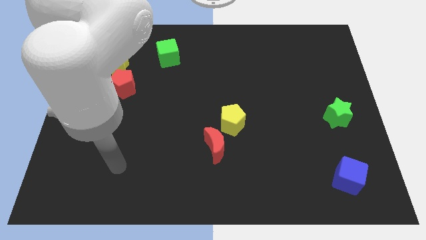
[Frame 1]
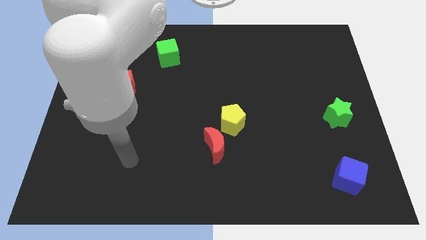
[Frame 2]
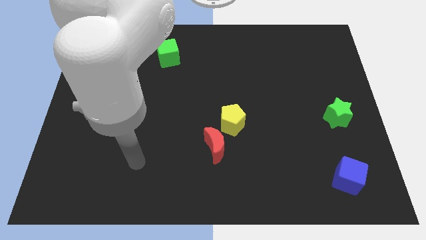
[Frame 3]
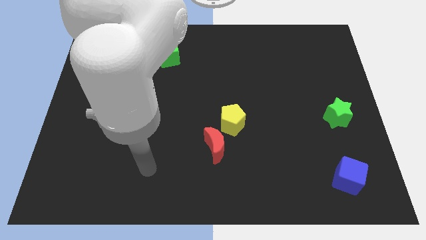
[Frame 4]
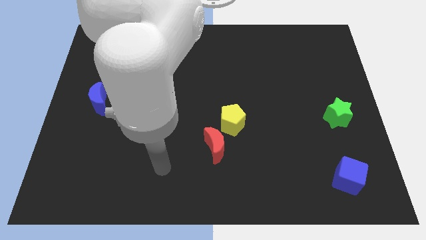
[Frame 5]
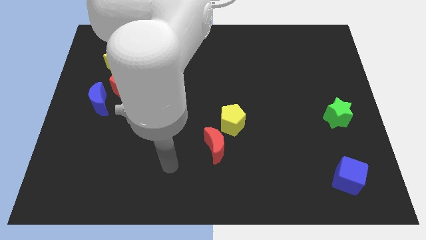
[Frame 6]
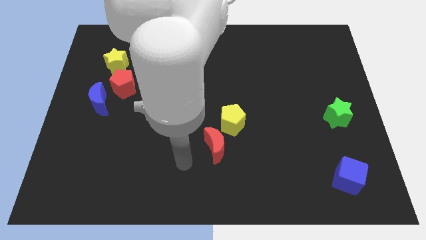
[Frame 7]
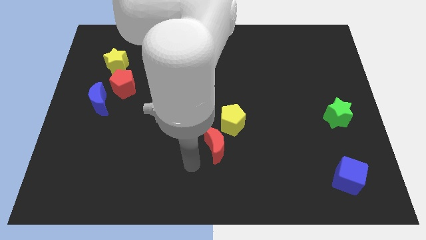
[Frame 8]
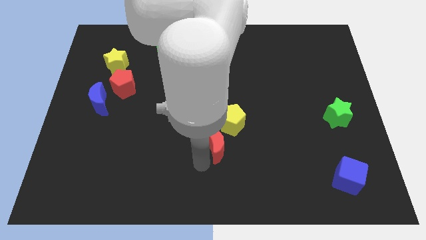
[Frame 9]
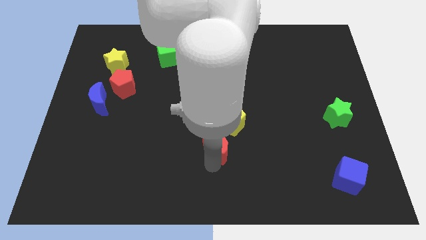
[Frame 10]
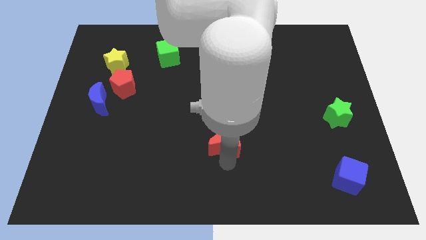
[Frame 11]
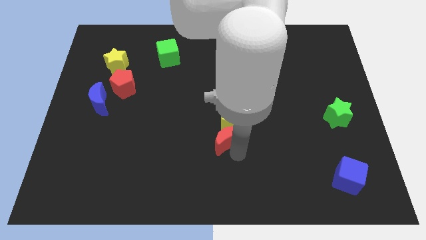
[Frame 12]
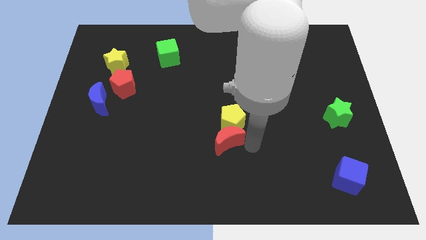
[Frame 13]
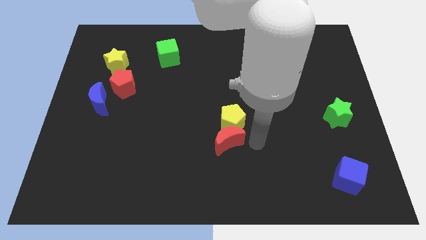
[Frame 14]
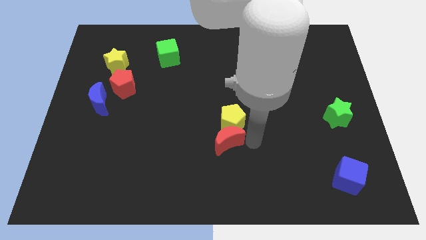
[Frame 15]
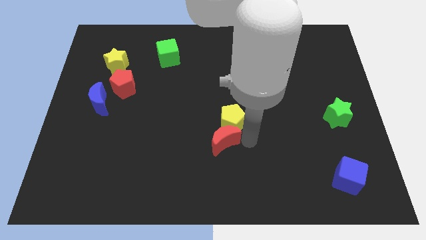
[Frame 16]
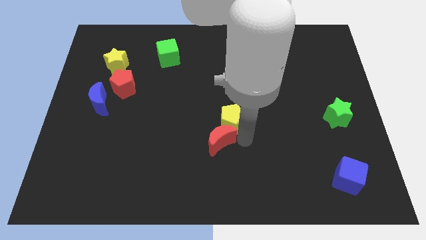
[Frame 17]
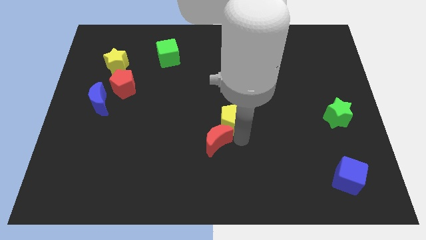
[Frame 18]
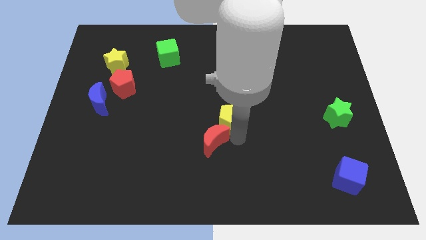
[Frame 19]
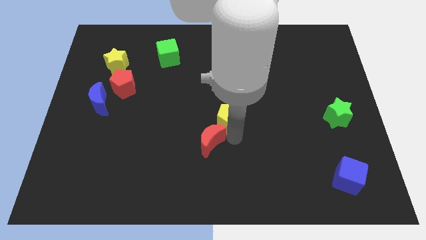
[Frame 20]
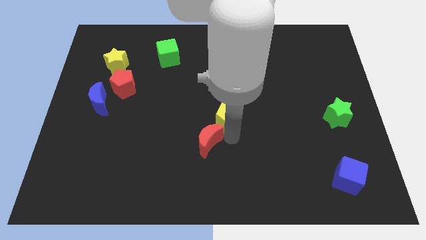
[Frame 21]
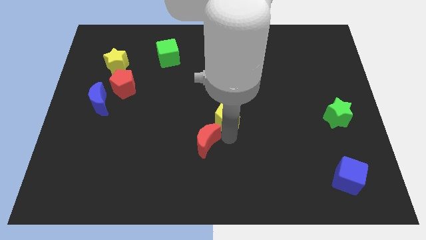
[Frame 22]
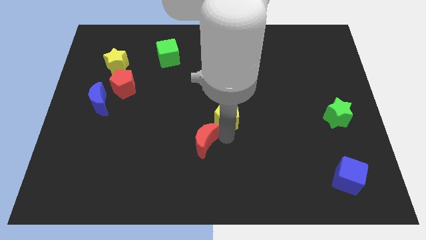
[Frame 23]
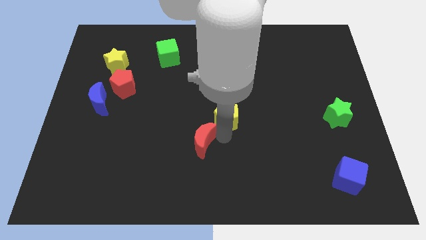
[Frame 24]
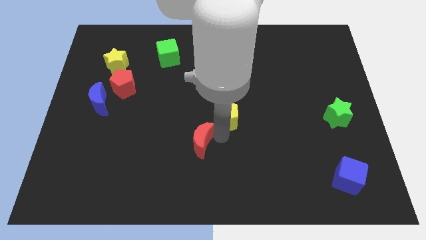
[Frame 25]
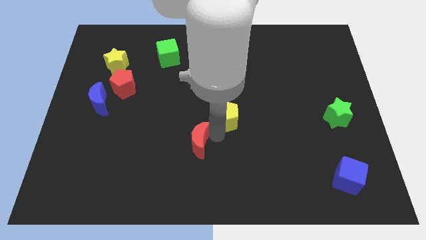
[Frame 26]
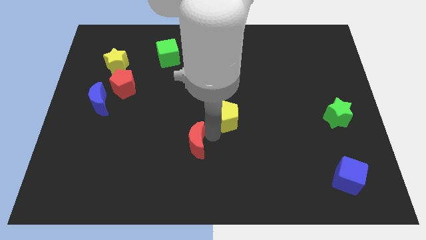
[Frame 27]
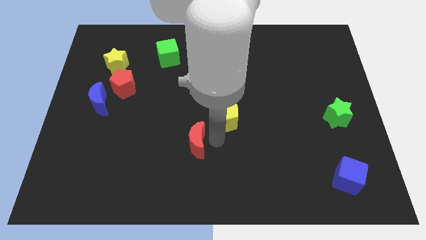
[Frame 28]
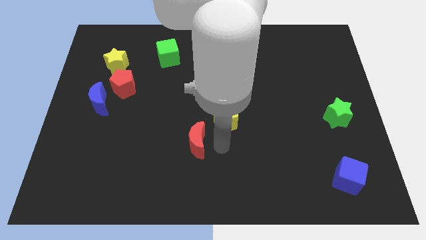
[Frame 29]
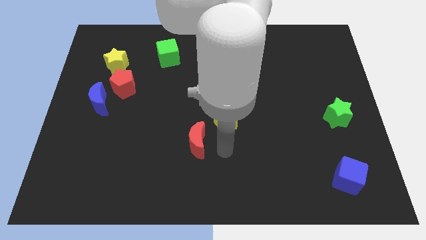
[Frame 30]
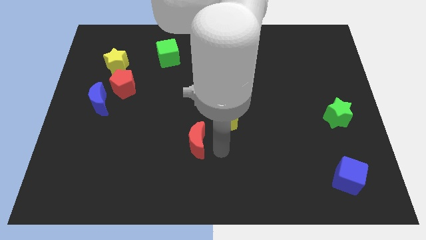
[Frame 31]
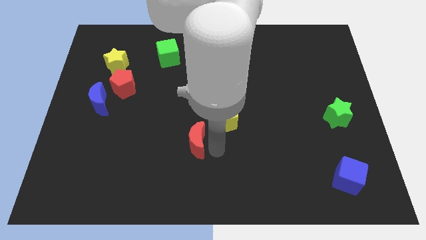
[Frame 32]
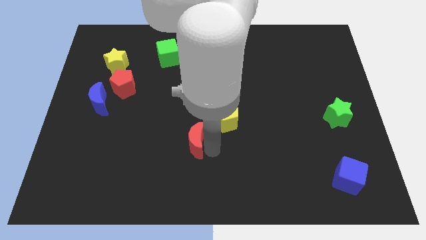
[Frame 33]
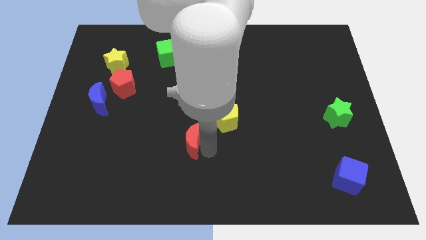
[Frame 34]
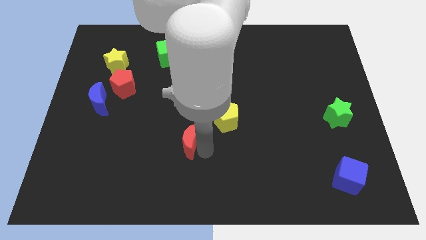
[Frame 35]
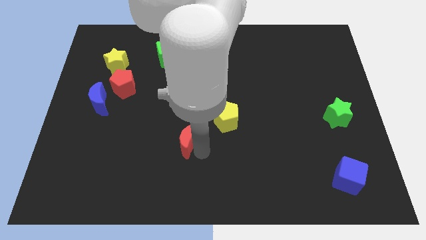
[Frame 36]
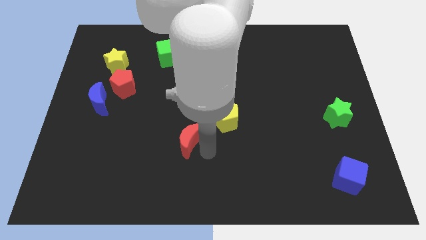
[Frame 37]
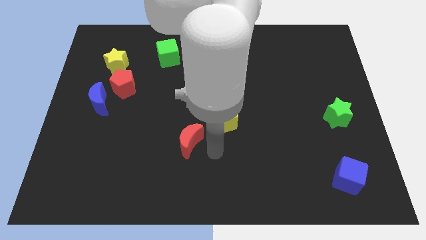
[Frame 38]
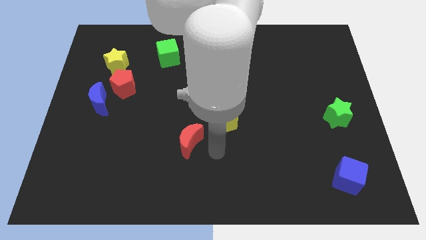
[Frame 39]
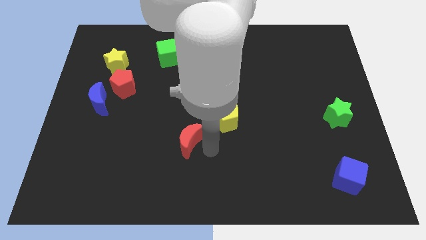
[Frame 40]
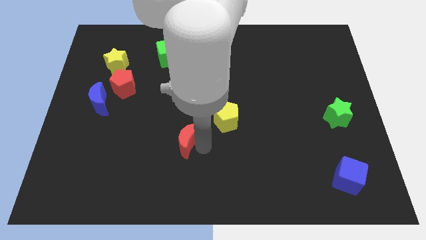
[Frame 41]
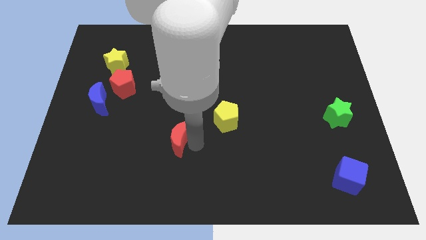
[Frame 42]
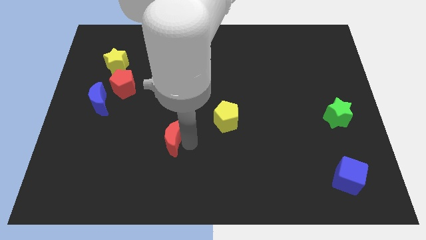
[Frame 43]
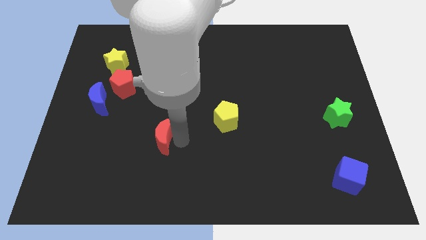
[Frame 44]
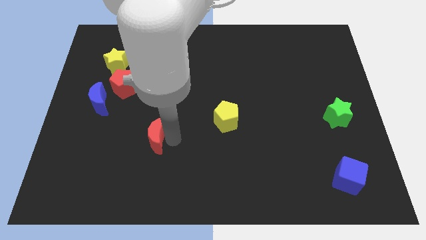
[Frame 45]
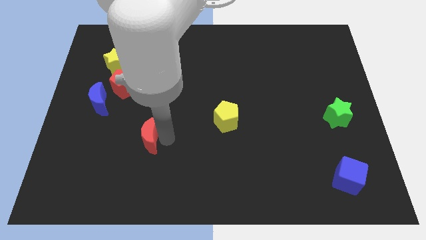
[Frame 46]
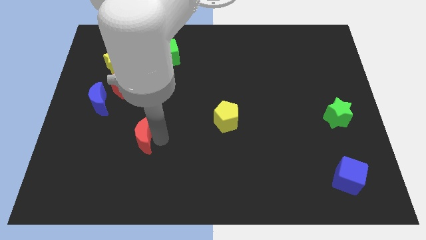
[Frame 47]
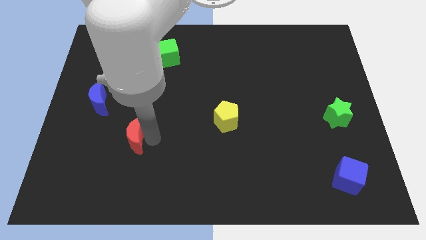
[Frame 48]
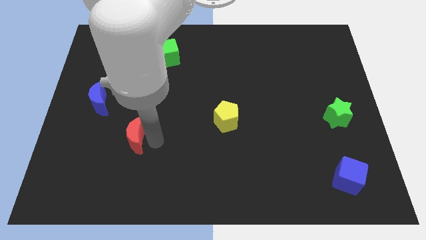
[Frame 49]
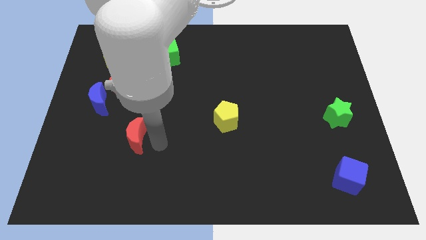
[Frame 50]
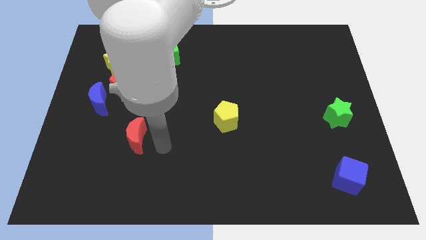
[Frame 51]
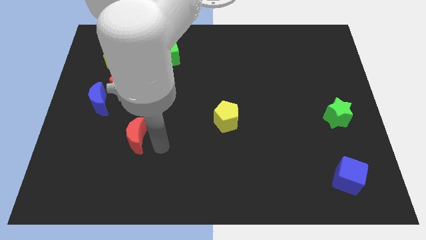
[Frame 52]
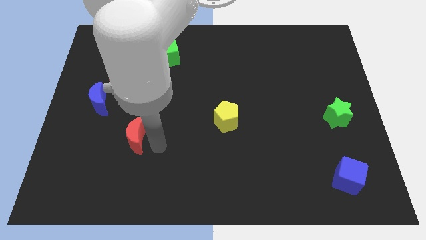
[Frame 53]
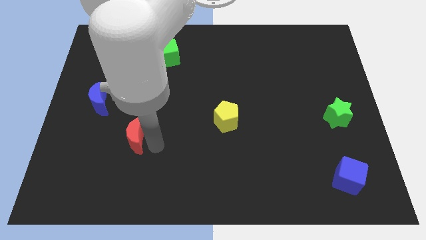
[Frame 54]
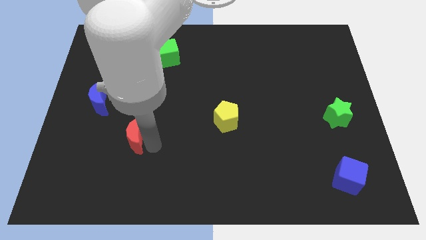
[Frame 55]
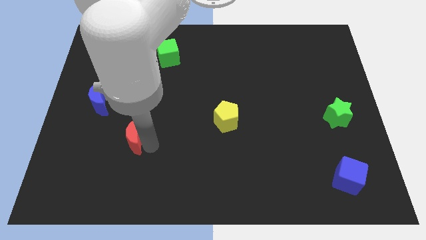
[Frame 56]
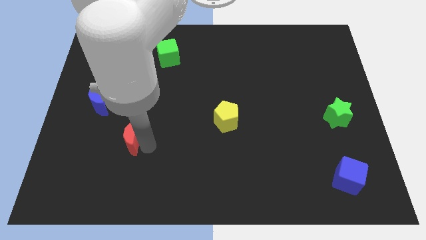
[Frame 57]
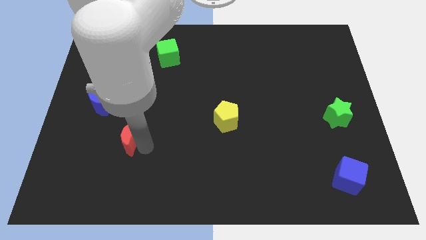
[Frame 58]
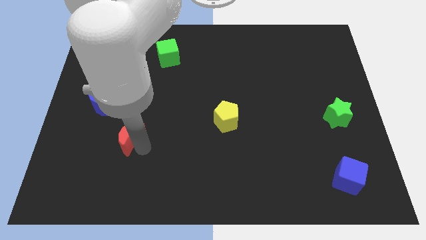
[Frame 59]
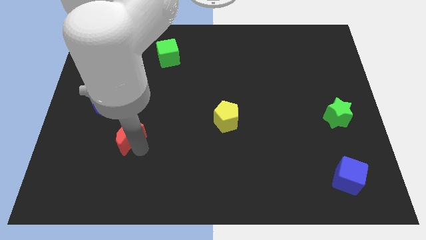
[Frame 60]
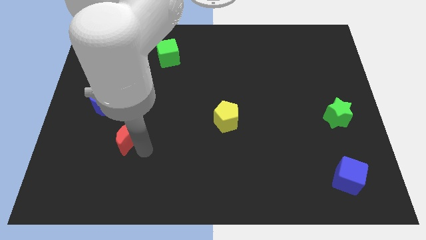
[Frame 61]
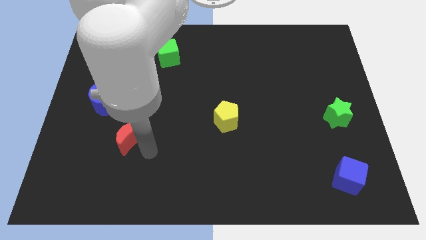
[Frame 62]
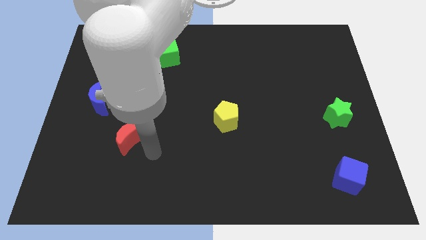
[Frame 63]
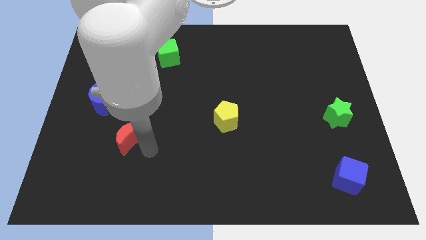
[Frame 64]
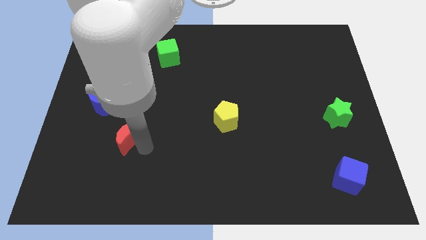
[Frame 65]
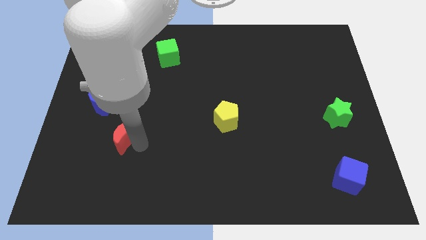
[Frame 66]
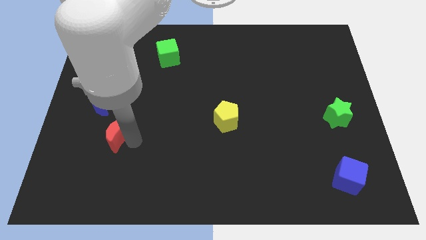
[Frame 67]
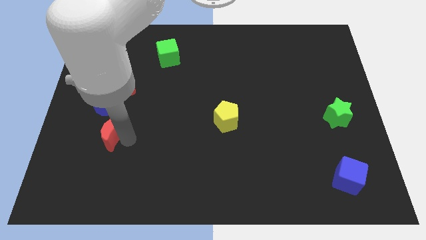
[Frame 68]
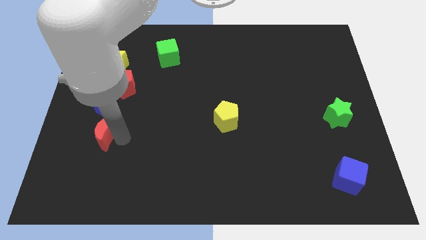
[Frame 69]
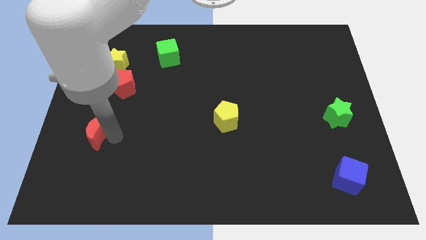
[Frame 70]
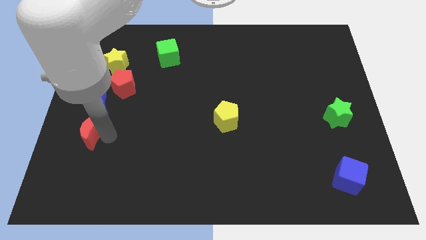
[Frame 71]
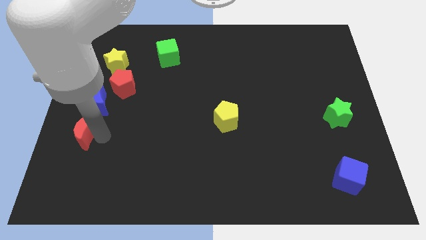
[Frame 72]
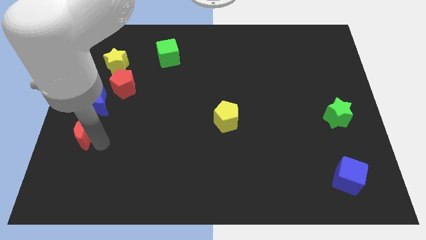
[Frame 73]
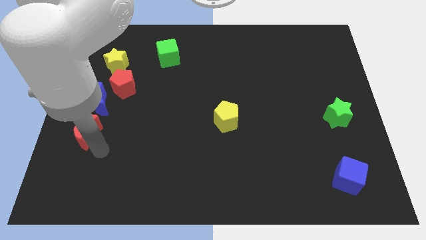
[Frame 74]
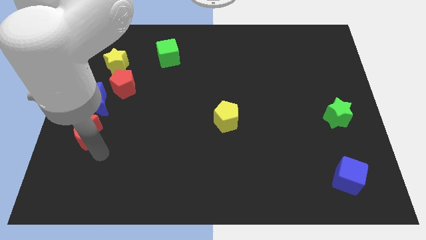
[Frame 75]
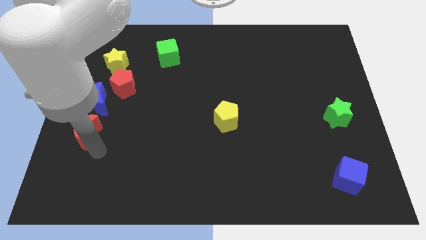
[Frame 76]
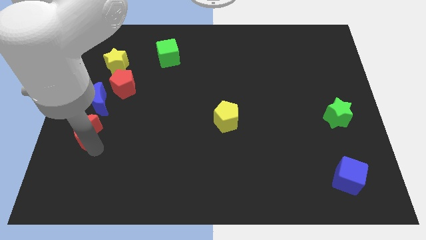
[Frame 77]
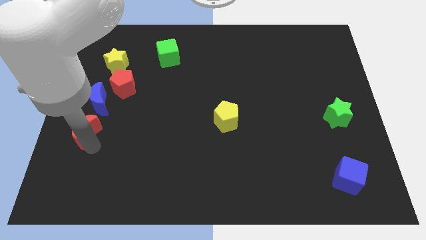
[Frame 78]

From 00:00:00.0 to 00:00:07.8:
push the red moon to the center left
